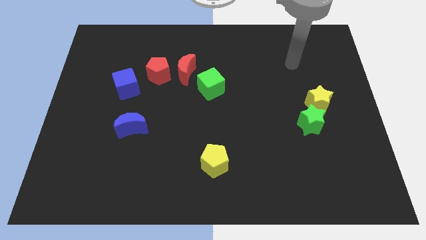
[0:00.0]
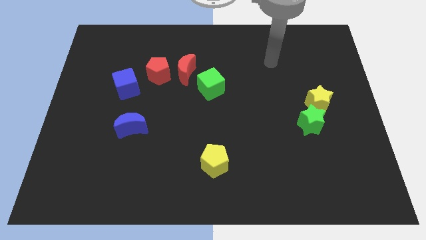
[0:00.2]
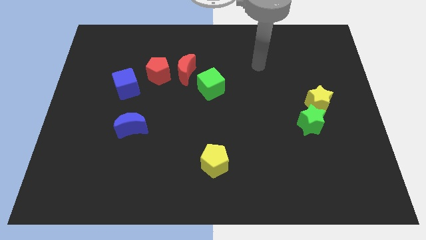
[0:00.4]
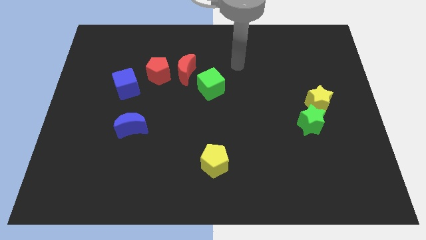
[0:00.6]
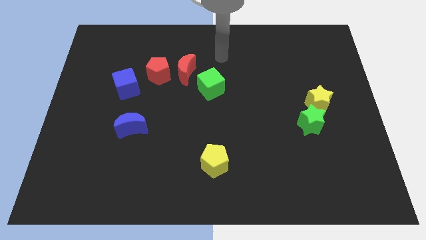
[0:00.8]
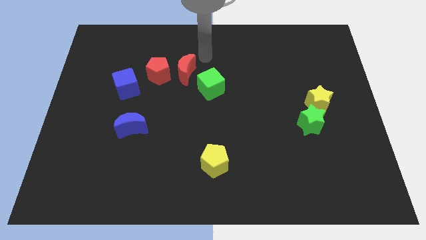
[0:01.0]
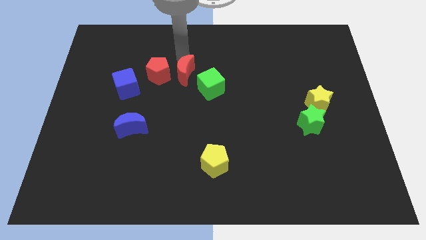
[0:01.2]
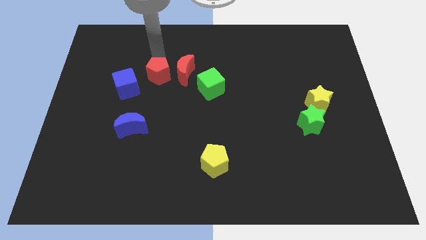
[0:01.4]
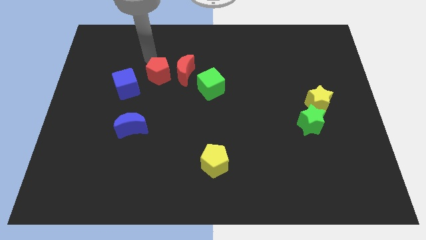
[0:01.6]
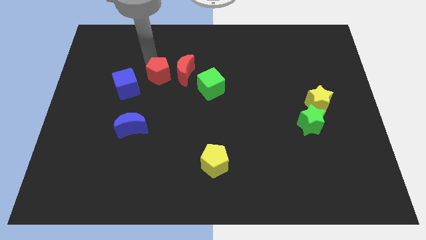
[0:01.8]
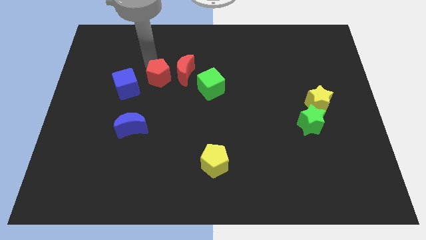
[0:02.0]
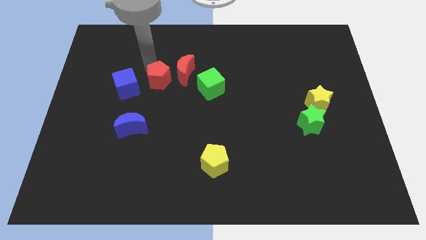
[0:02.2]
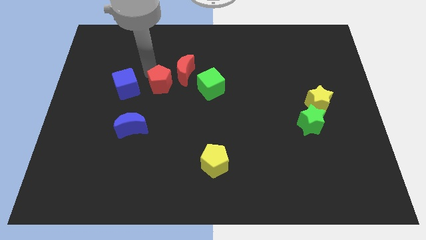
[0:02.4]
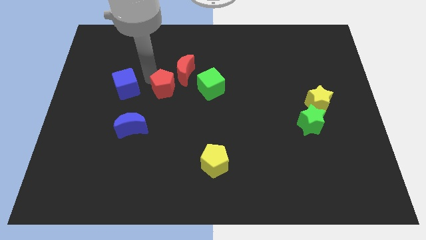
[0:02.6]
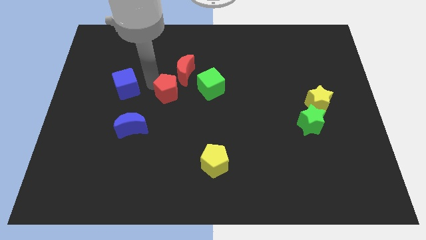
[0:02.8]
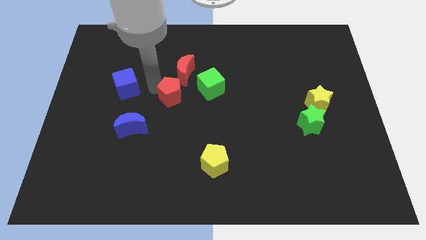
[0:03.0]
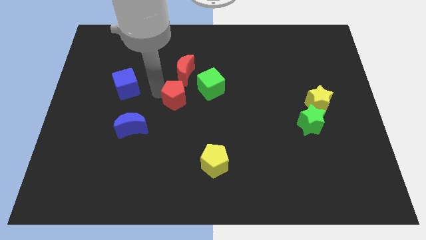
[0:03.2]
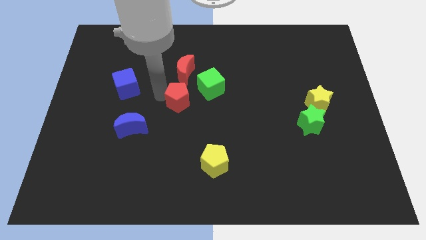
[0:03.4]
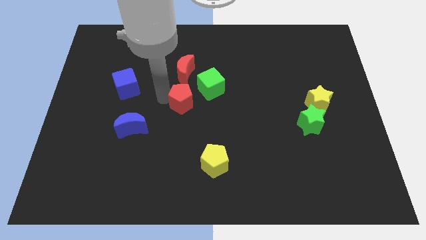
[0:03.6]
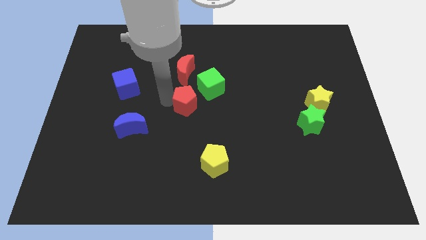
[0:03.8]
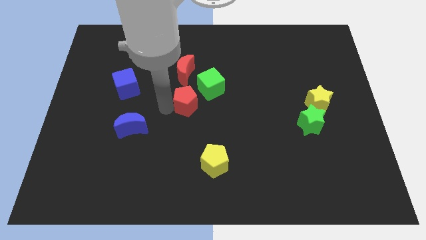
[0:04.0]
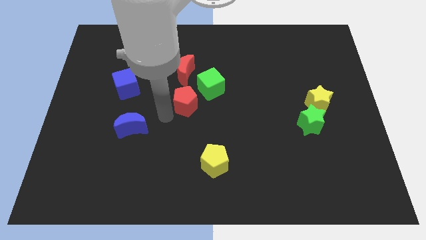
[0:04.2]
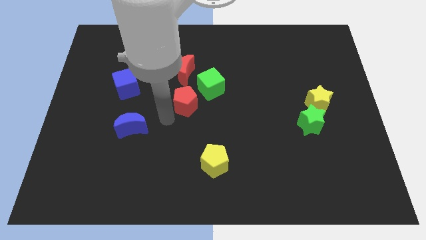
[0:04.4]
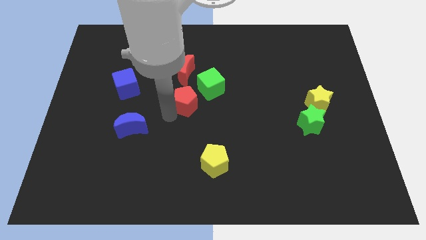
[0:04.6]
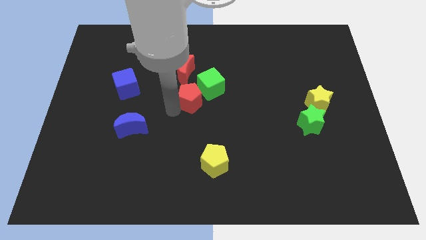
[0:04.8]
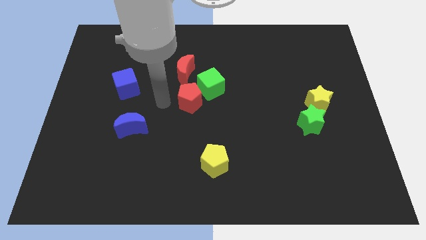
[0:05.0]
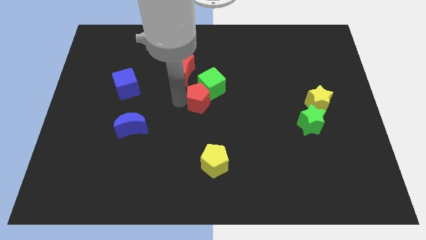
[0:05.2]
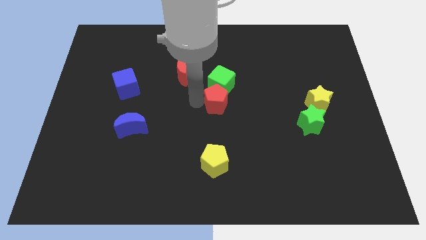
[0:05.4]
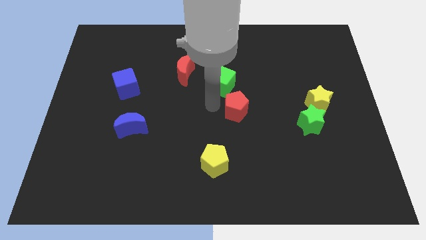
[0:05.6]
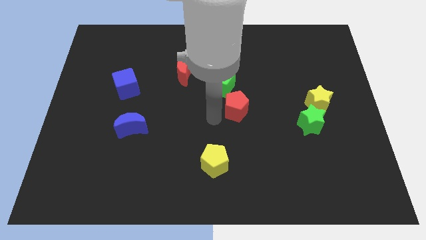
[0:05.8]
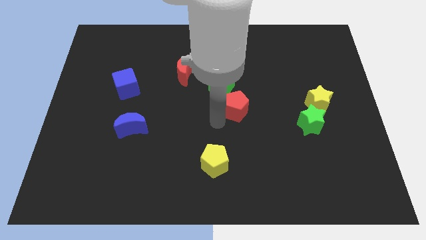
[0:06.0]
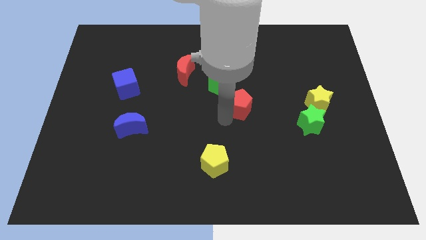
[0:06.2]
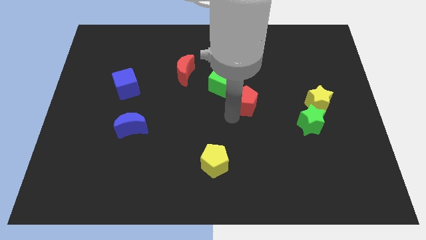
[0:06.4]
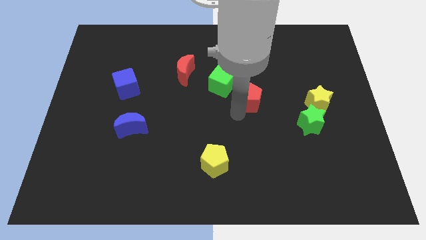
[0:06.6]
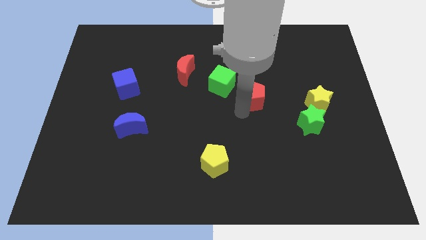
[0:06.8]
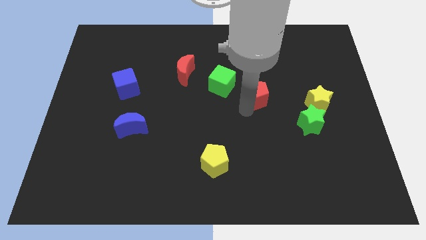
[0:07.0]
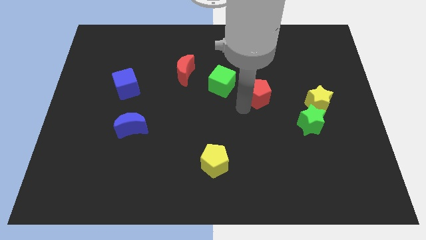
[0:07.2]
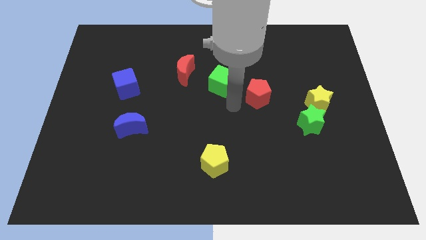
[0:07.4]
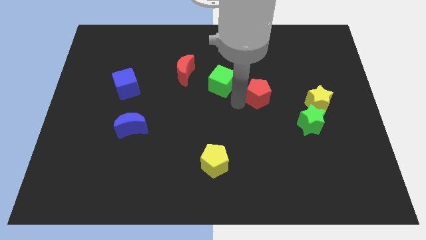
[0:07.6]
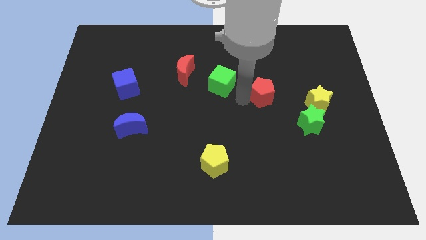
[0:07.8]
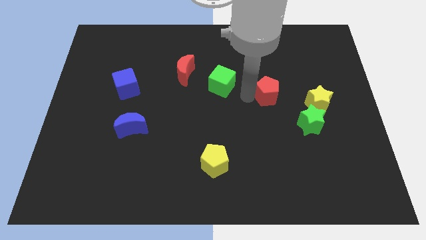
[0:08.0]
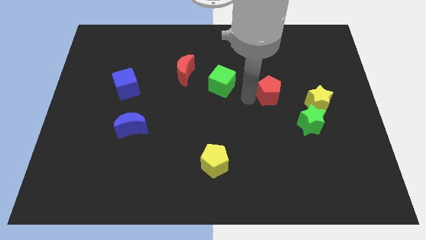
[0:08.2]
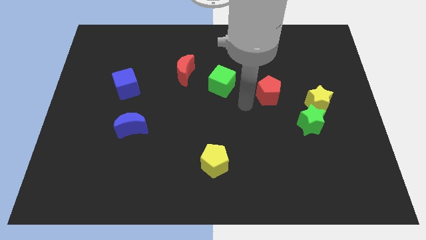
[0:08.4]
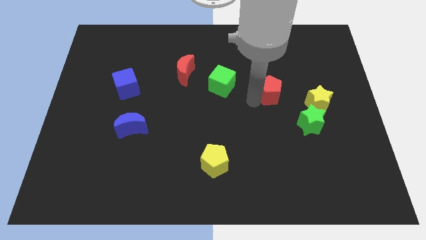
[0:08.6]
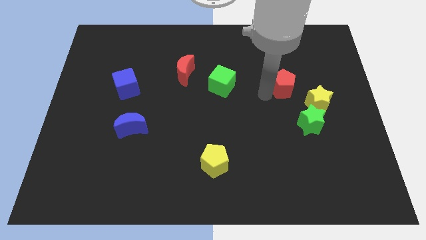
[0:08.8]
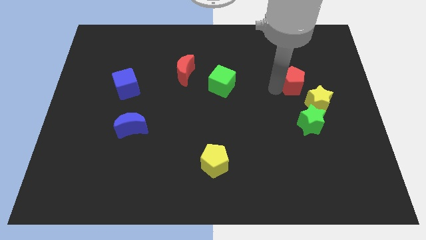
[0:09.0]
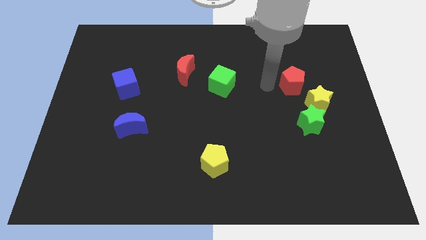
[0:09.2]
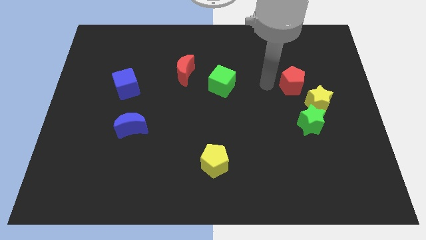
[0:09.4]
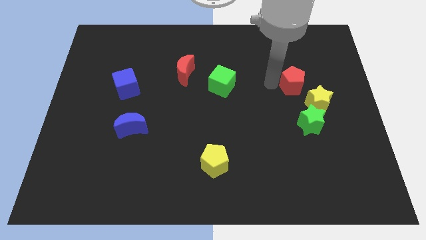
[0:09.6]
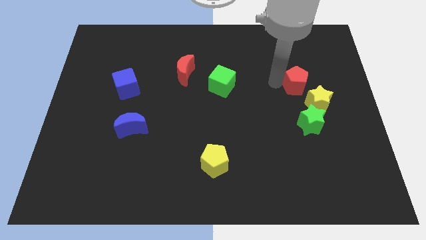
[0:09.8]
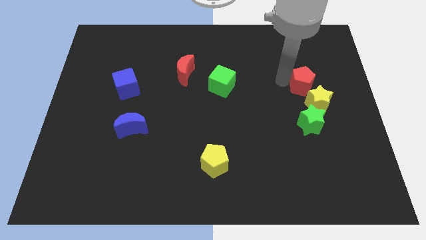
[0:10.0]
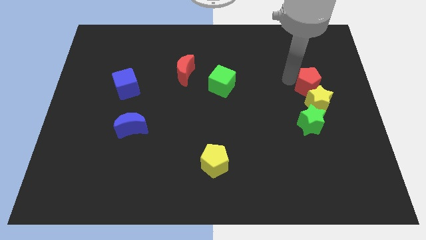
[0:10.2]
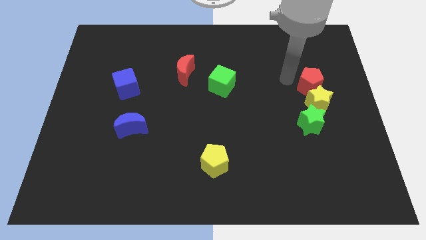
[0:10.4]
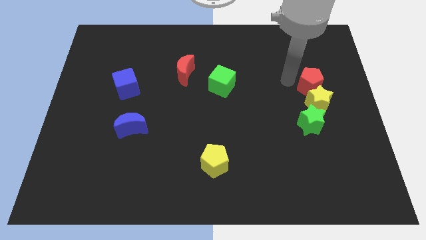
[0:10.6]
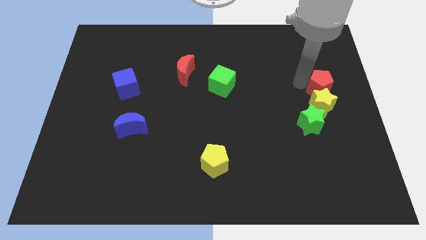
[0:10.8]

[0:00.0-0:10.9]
move the red pentagon to the right side of the board

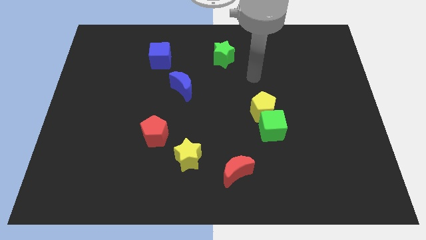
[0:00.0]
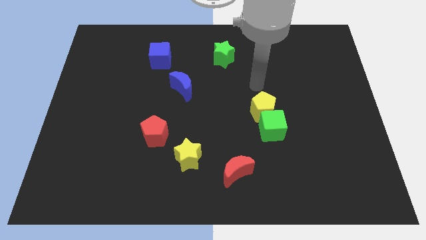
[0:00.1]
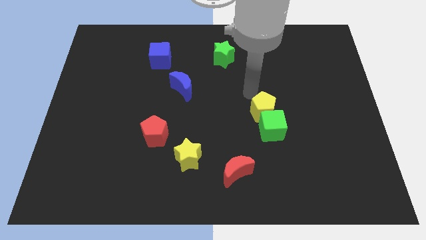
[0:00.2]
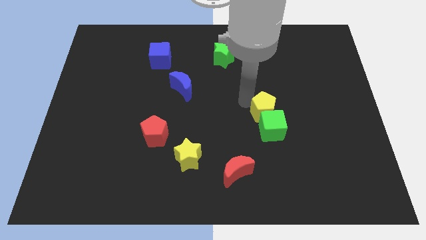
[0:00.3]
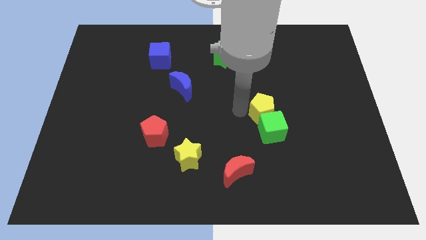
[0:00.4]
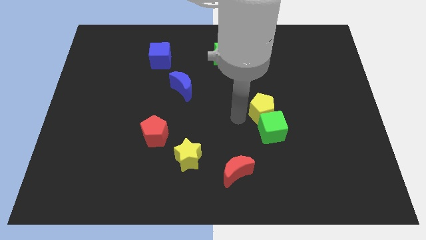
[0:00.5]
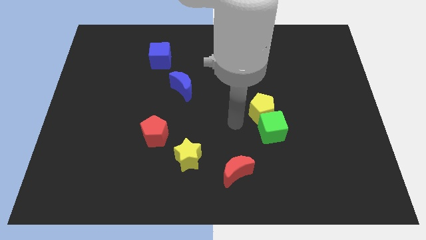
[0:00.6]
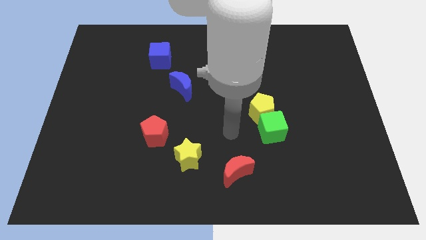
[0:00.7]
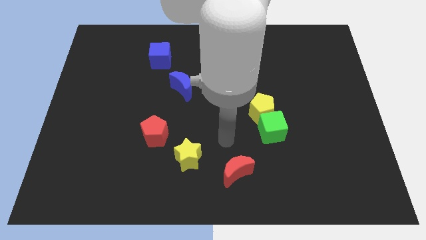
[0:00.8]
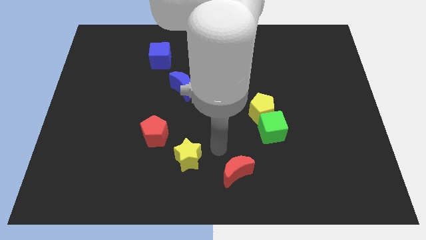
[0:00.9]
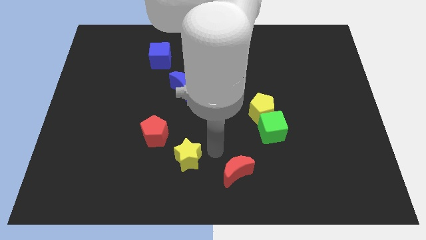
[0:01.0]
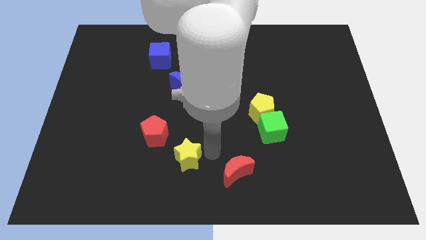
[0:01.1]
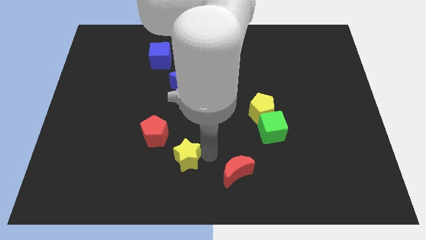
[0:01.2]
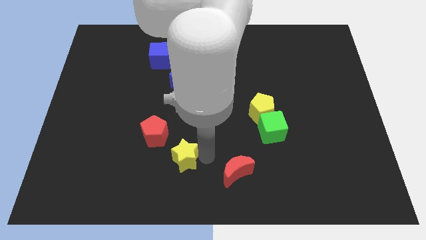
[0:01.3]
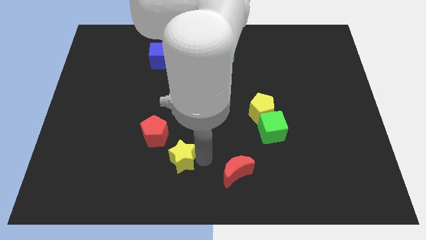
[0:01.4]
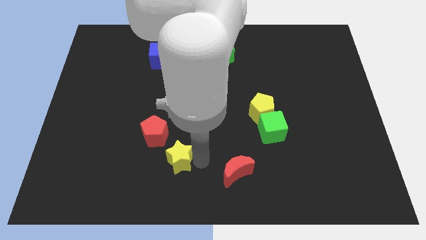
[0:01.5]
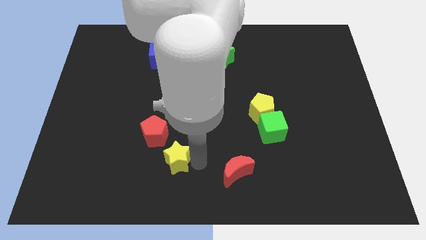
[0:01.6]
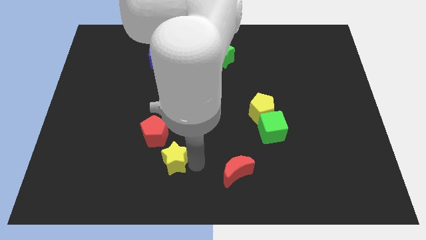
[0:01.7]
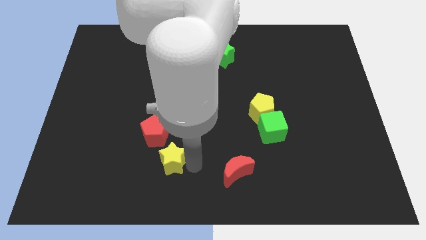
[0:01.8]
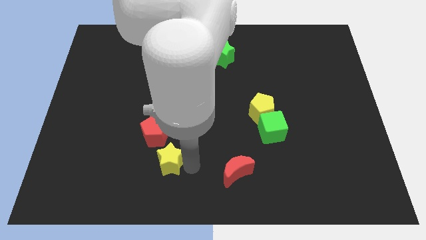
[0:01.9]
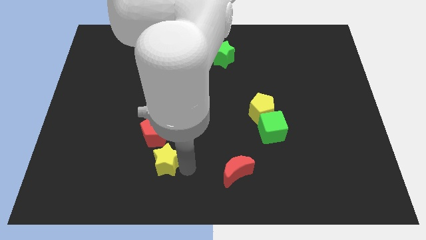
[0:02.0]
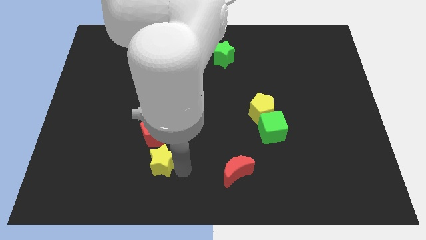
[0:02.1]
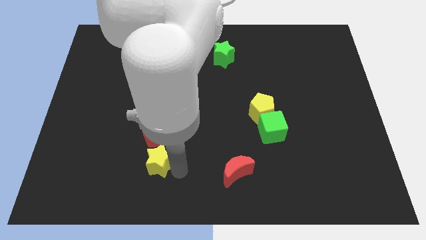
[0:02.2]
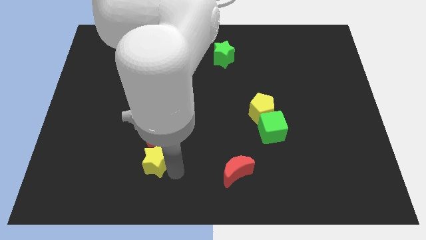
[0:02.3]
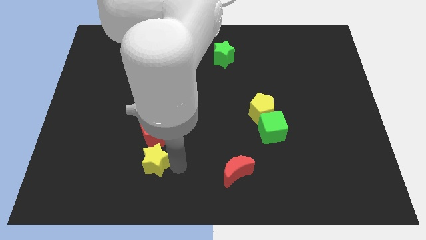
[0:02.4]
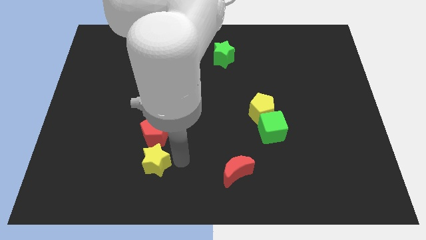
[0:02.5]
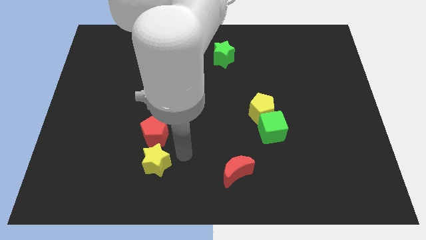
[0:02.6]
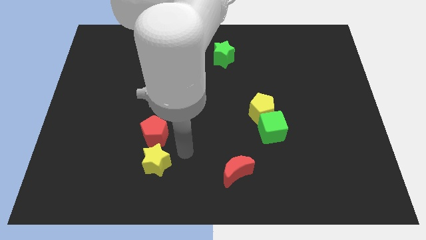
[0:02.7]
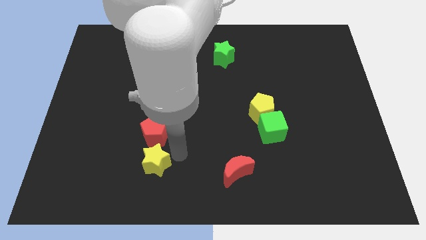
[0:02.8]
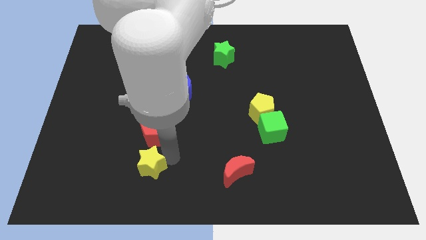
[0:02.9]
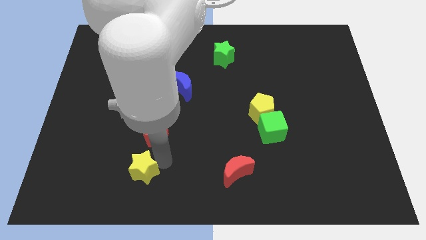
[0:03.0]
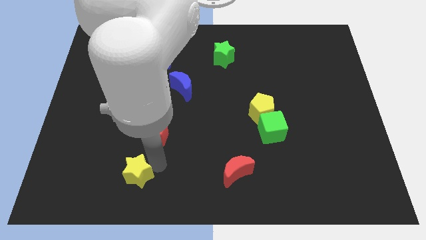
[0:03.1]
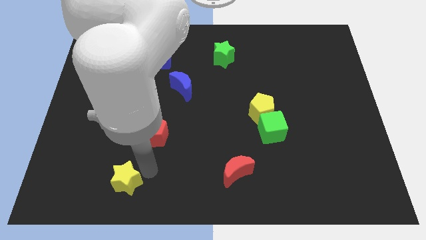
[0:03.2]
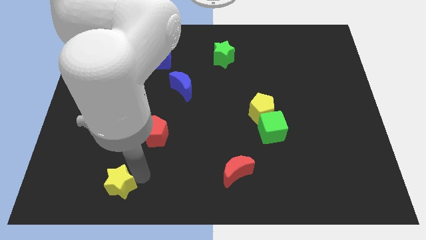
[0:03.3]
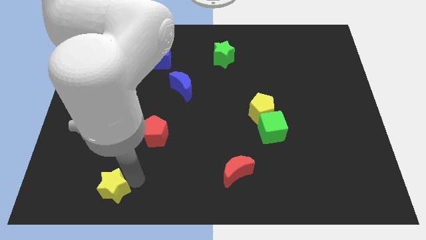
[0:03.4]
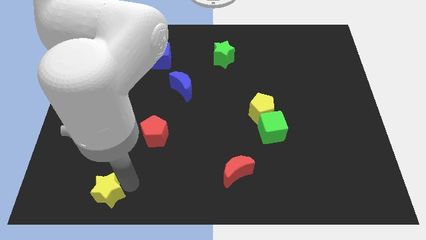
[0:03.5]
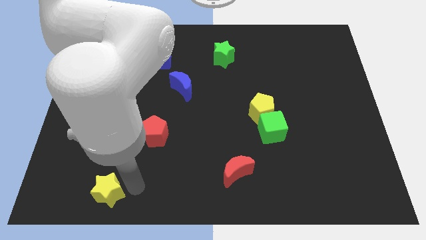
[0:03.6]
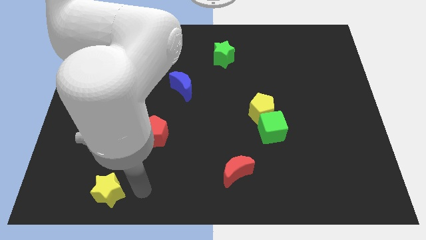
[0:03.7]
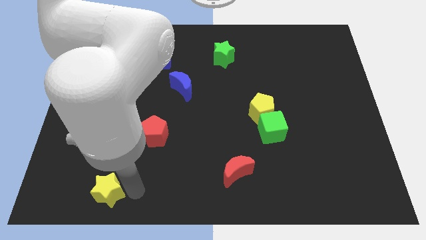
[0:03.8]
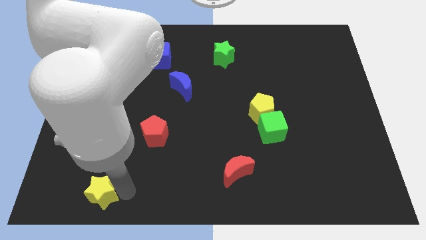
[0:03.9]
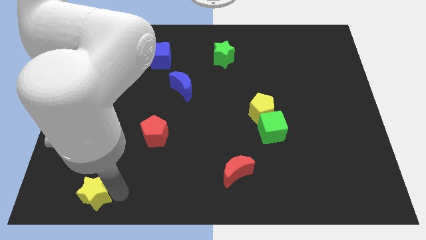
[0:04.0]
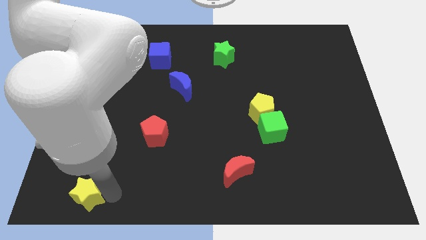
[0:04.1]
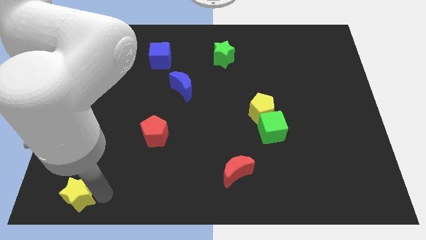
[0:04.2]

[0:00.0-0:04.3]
slide the yellow star to the bottom left
